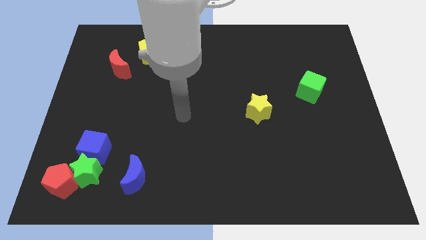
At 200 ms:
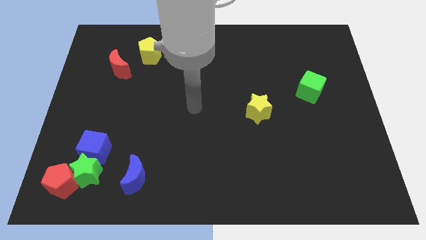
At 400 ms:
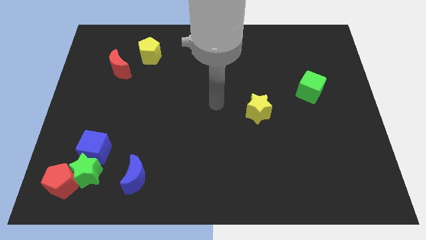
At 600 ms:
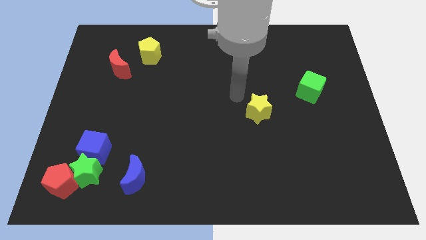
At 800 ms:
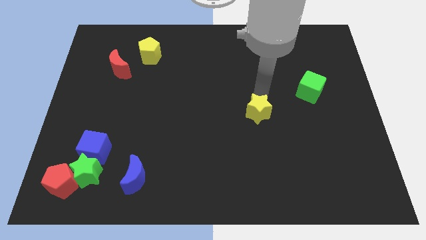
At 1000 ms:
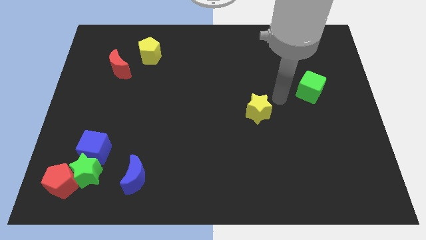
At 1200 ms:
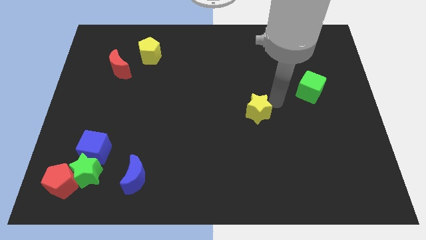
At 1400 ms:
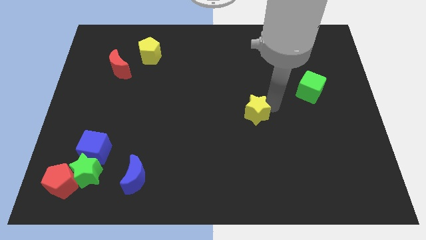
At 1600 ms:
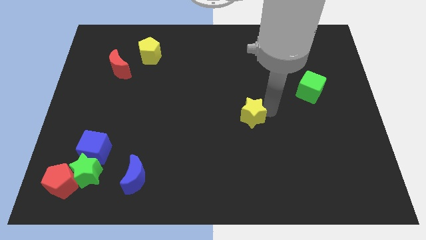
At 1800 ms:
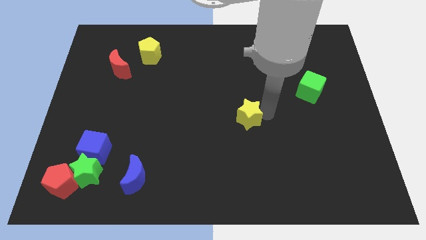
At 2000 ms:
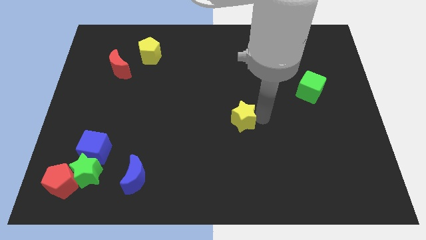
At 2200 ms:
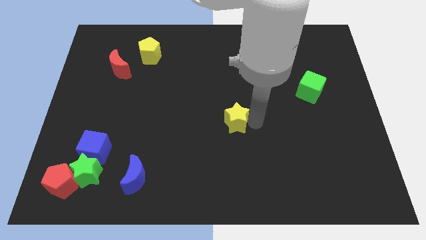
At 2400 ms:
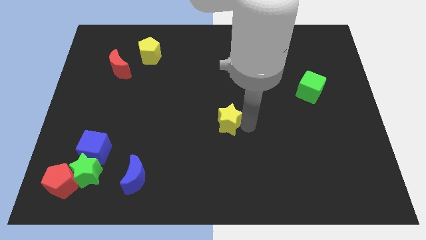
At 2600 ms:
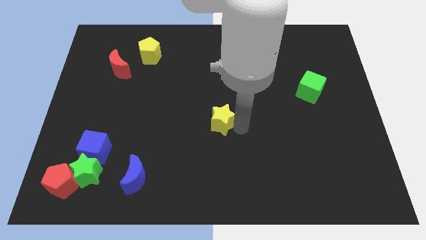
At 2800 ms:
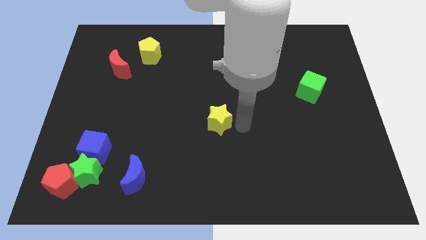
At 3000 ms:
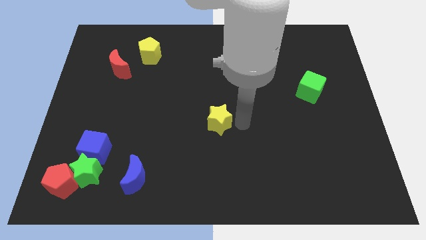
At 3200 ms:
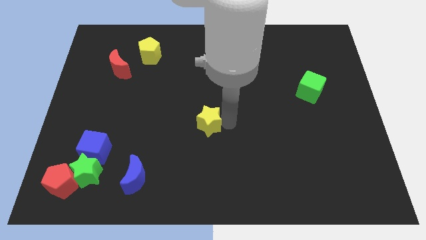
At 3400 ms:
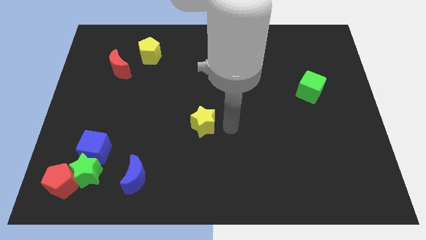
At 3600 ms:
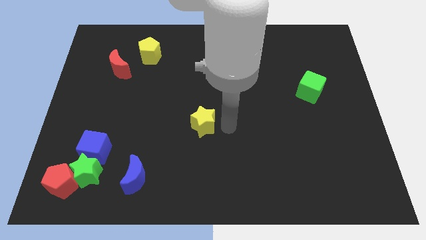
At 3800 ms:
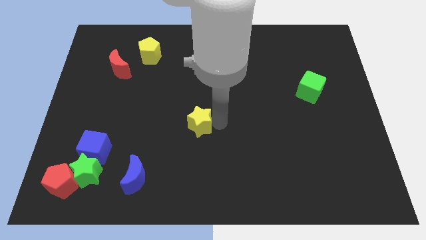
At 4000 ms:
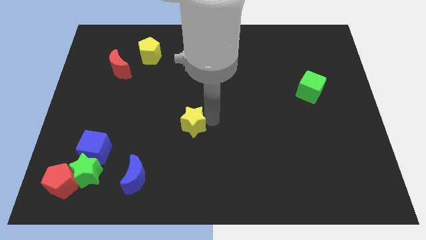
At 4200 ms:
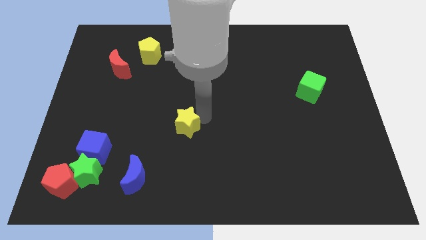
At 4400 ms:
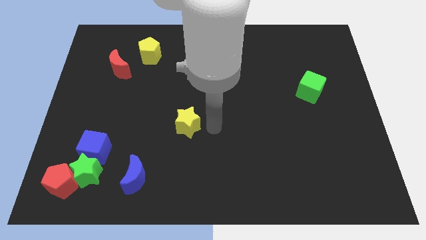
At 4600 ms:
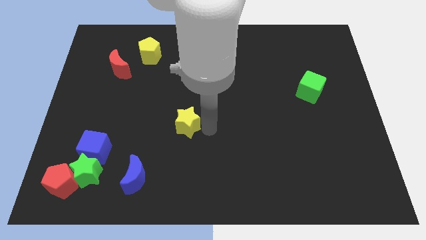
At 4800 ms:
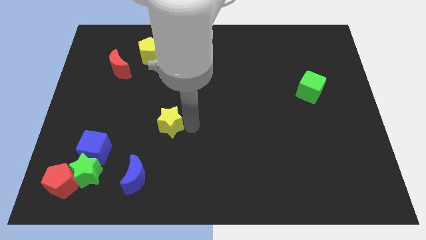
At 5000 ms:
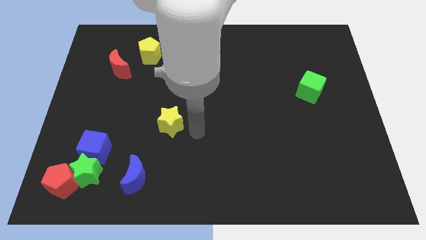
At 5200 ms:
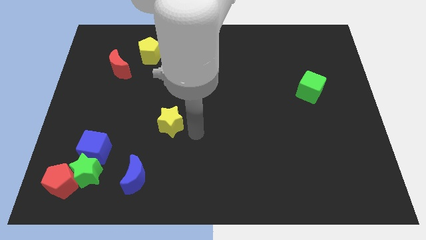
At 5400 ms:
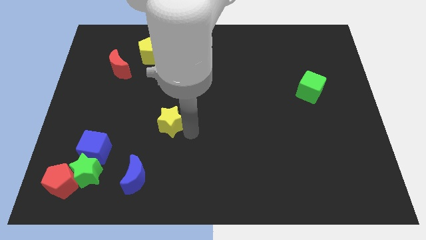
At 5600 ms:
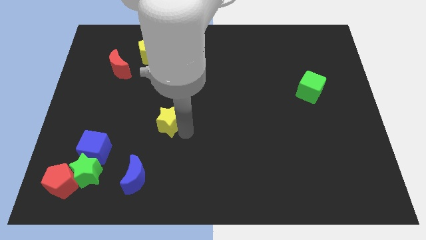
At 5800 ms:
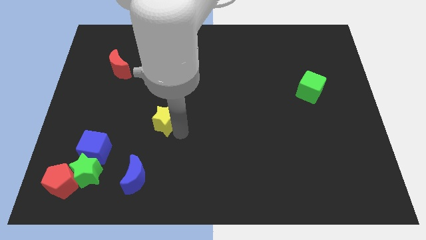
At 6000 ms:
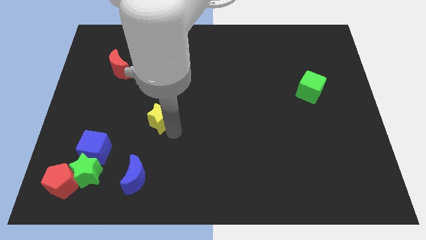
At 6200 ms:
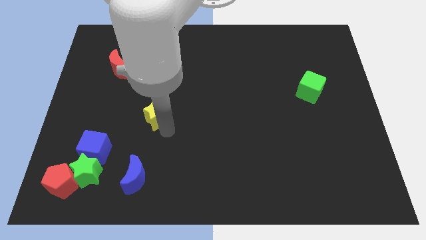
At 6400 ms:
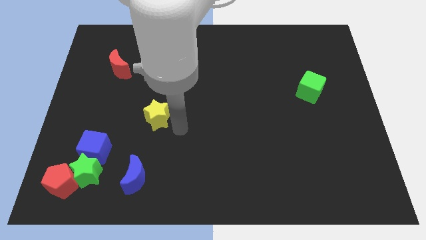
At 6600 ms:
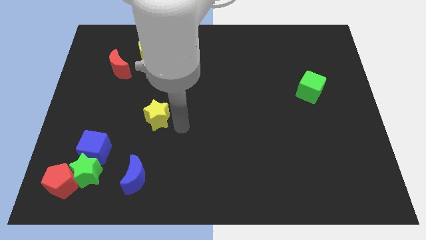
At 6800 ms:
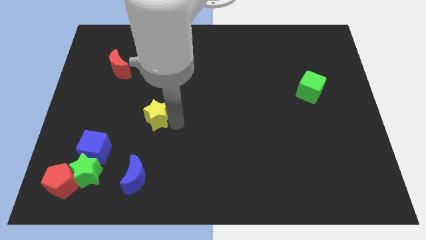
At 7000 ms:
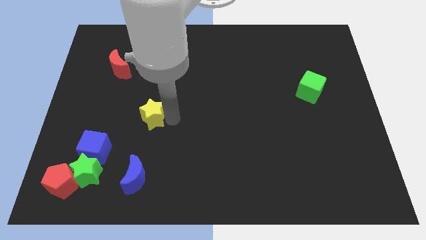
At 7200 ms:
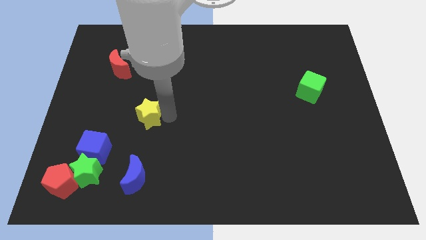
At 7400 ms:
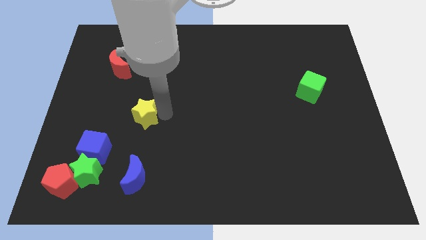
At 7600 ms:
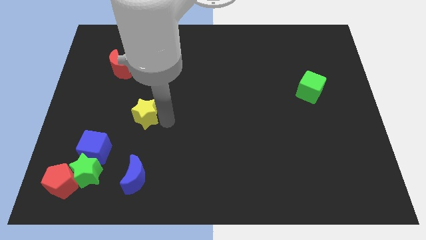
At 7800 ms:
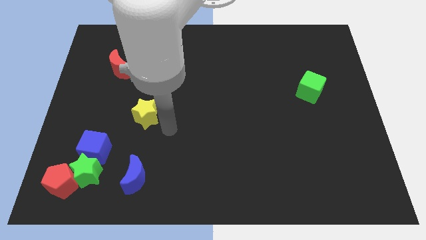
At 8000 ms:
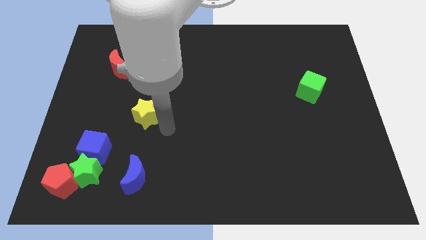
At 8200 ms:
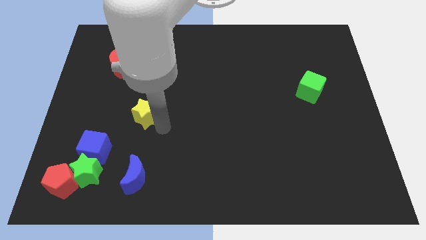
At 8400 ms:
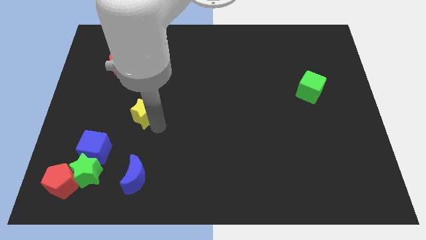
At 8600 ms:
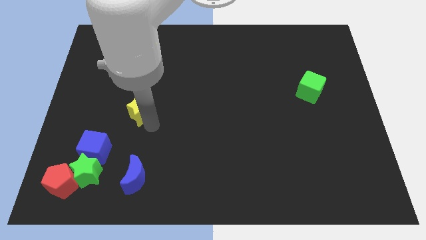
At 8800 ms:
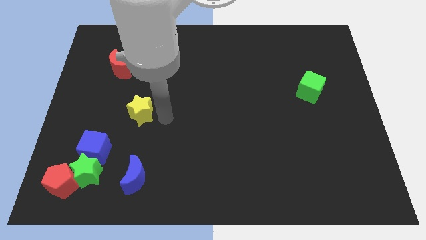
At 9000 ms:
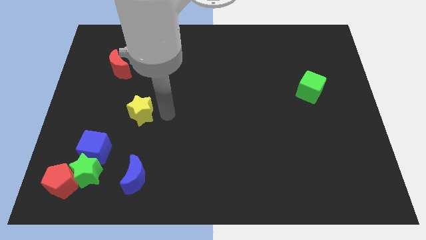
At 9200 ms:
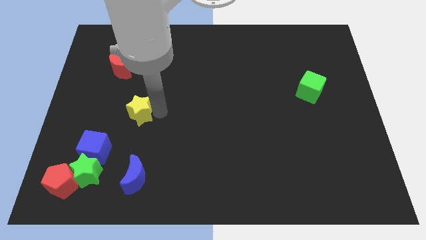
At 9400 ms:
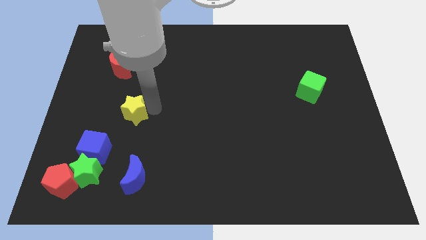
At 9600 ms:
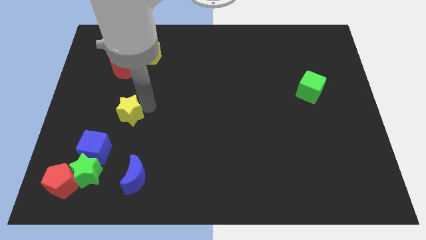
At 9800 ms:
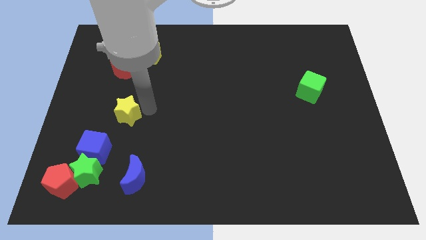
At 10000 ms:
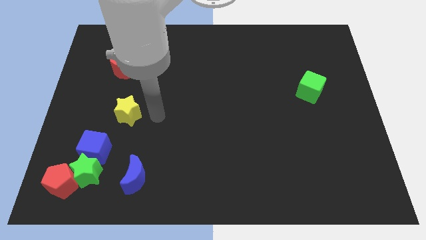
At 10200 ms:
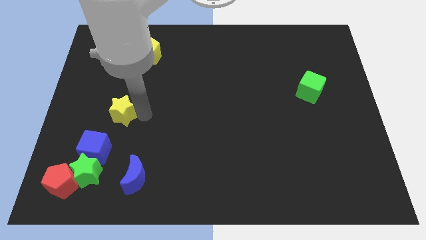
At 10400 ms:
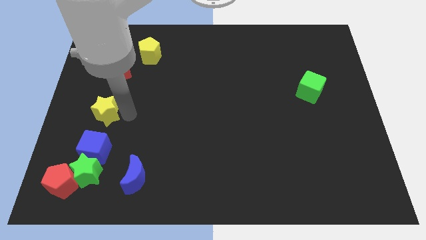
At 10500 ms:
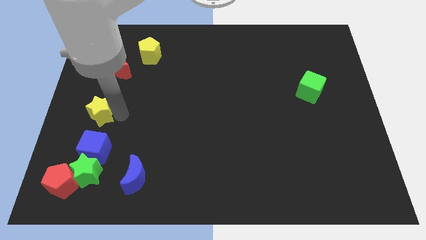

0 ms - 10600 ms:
put the yellow star to the left side
